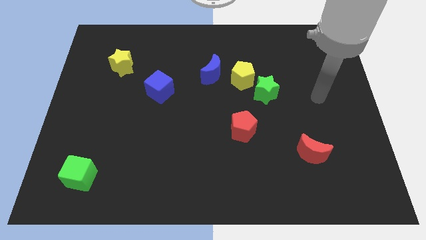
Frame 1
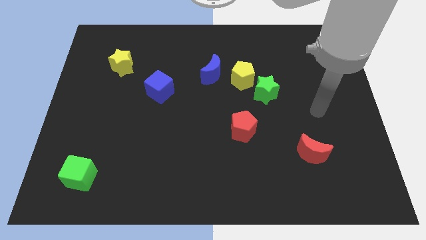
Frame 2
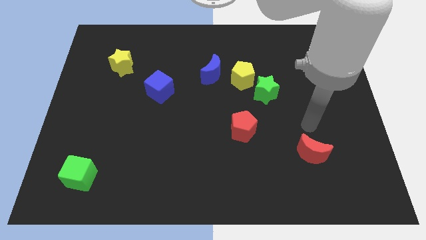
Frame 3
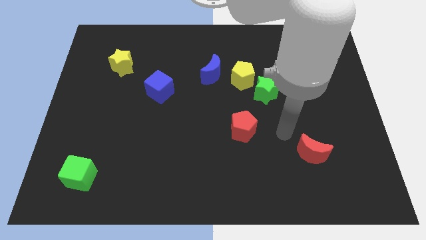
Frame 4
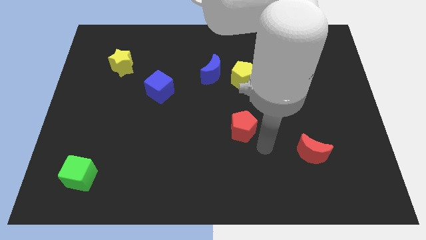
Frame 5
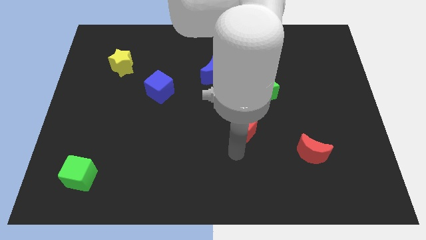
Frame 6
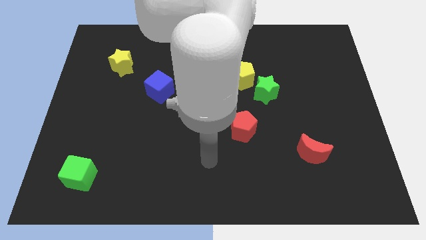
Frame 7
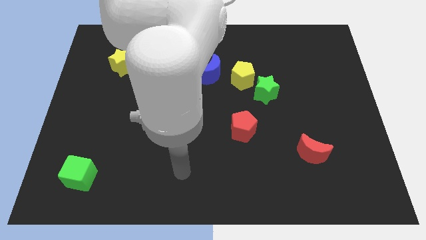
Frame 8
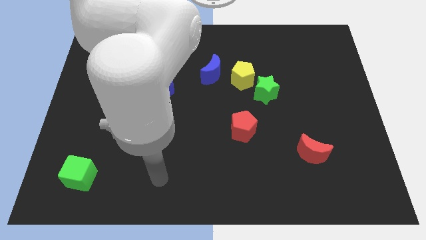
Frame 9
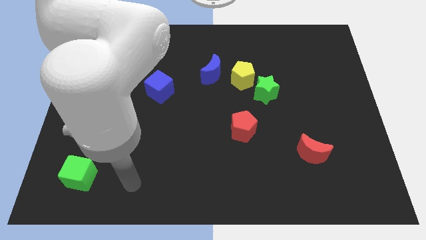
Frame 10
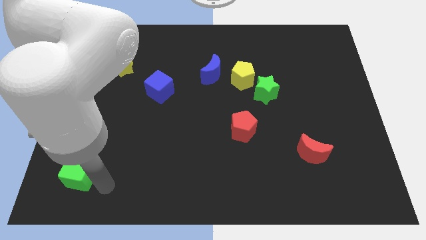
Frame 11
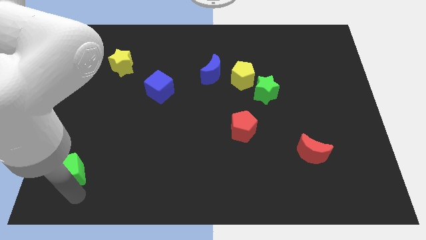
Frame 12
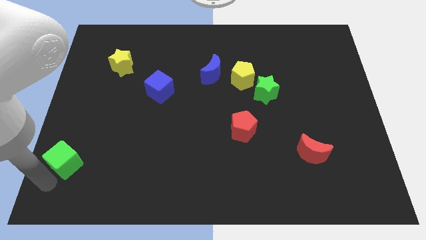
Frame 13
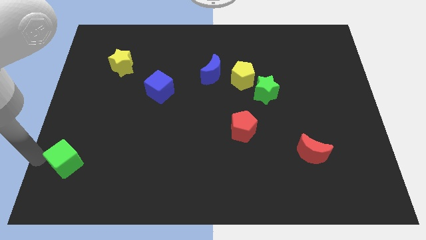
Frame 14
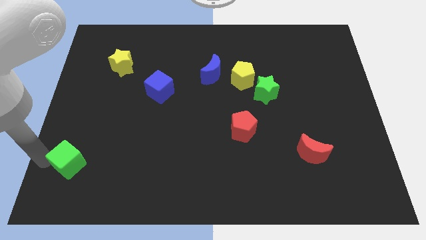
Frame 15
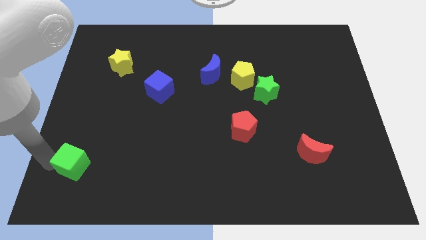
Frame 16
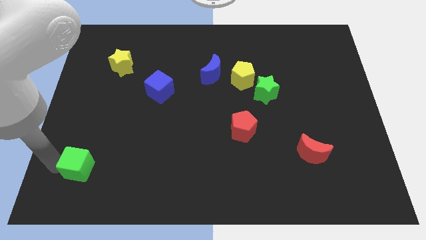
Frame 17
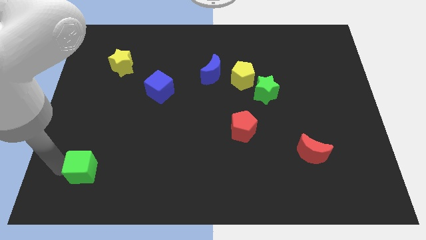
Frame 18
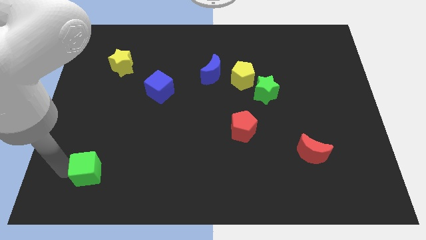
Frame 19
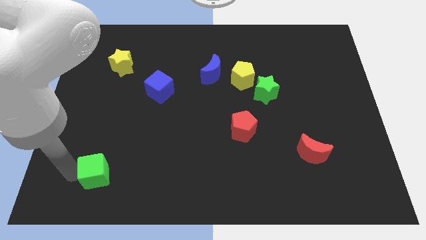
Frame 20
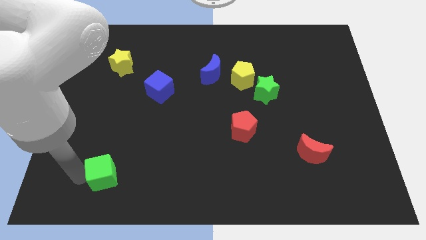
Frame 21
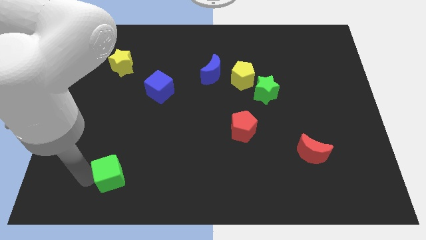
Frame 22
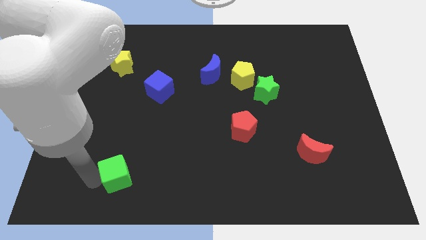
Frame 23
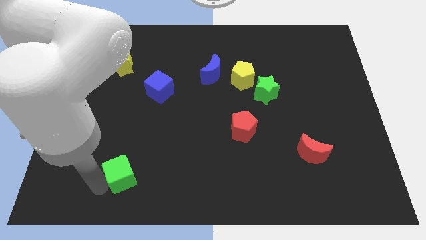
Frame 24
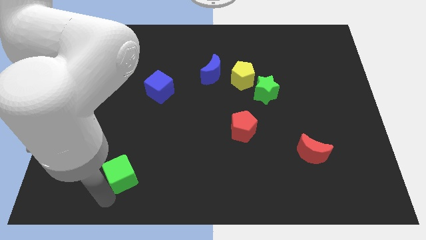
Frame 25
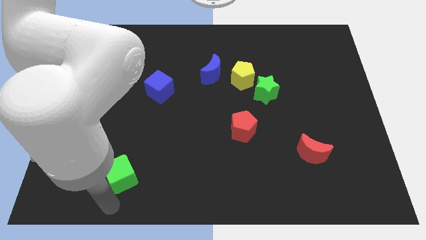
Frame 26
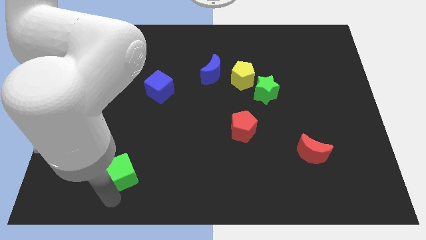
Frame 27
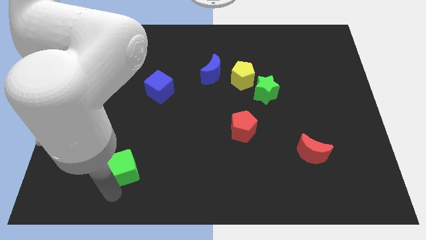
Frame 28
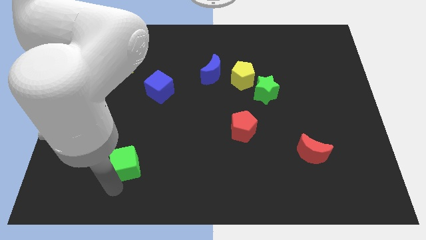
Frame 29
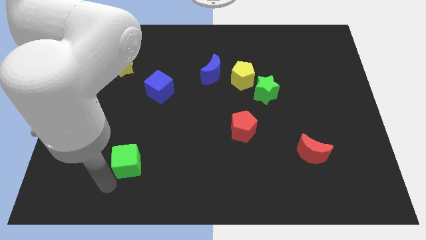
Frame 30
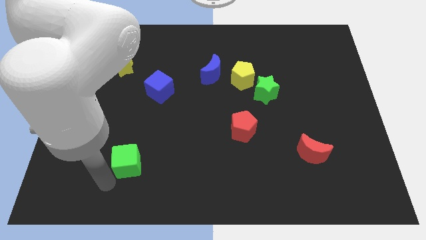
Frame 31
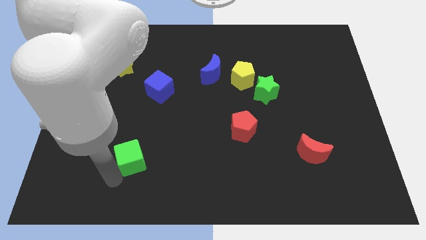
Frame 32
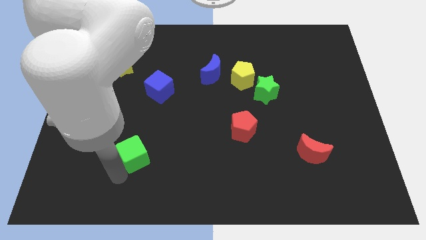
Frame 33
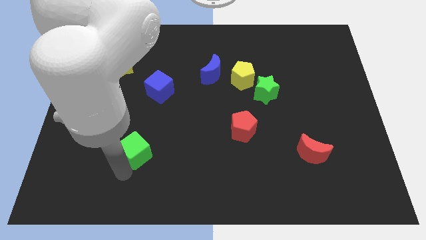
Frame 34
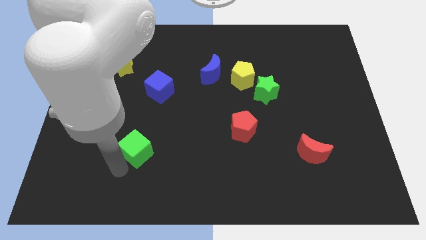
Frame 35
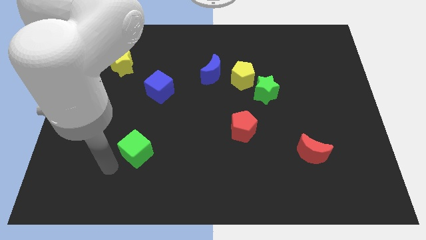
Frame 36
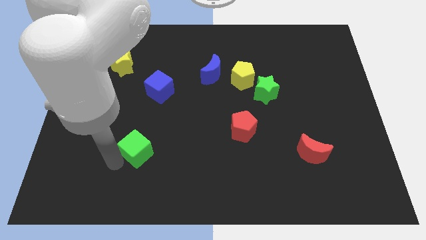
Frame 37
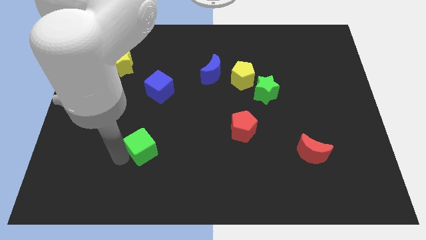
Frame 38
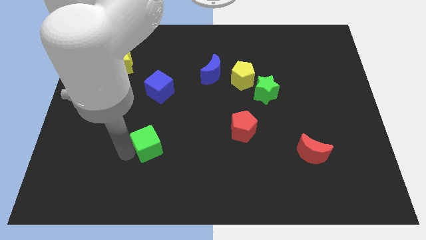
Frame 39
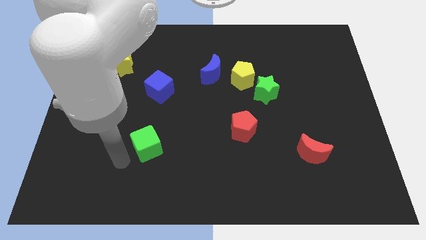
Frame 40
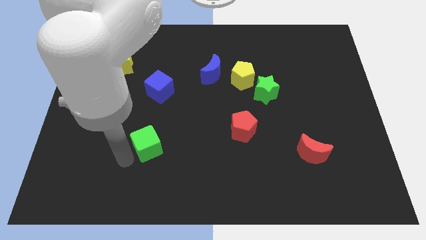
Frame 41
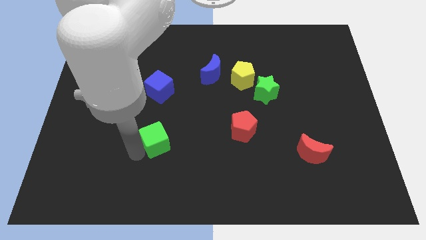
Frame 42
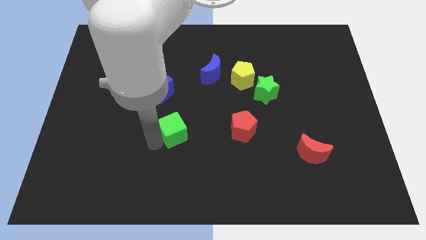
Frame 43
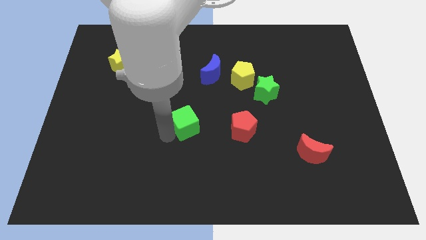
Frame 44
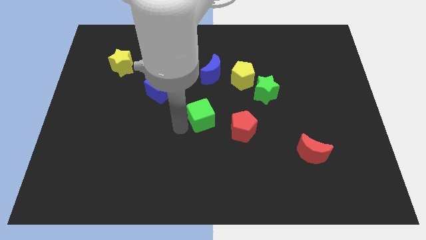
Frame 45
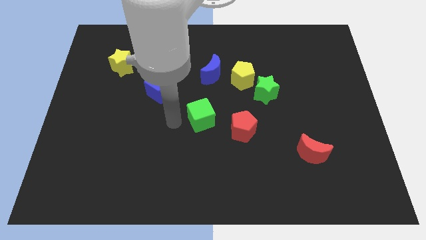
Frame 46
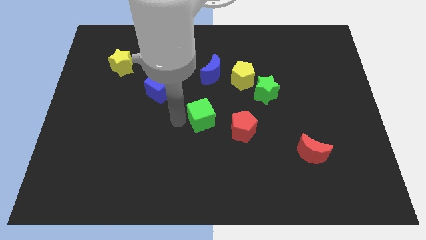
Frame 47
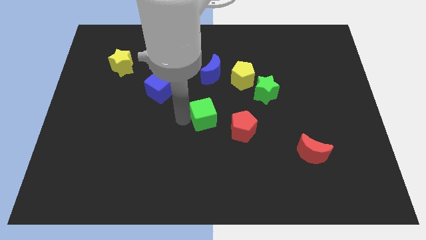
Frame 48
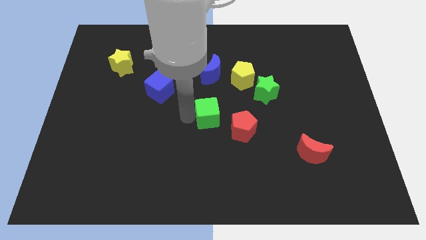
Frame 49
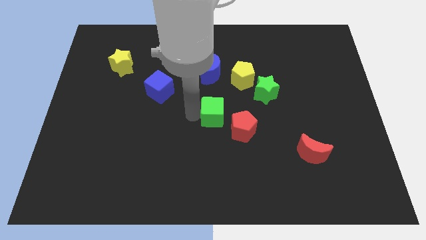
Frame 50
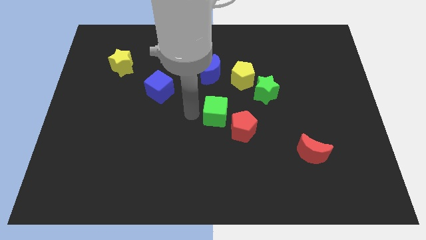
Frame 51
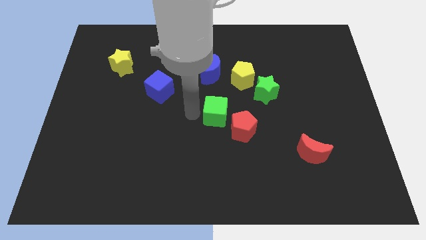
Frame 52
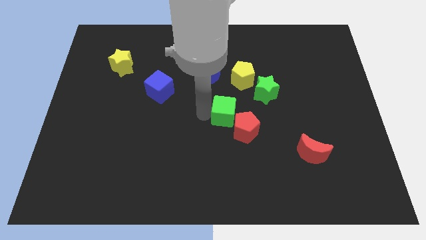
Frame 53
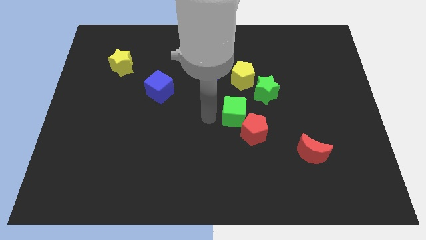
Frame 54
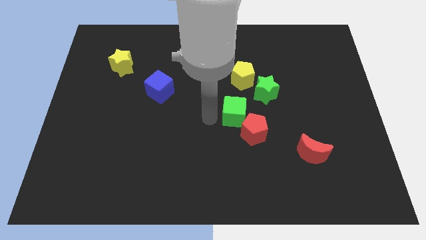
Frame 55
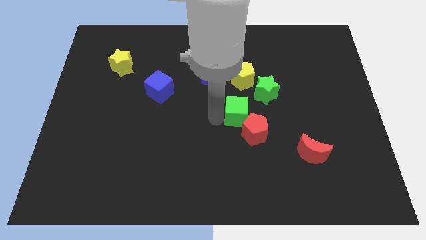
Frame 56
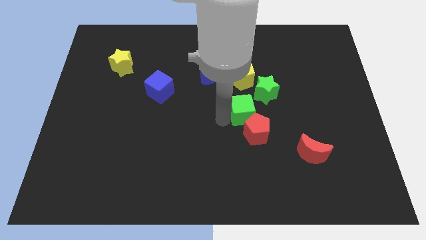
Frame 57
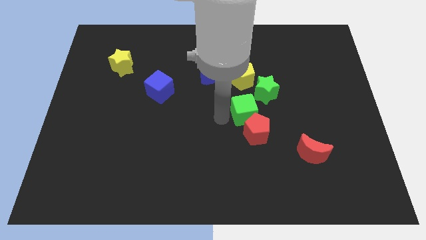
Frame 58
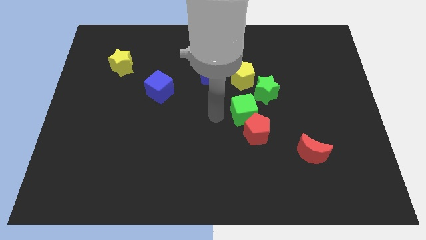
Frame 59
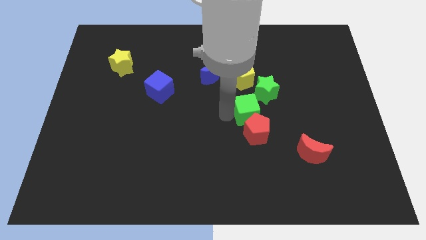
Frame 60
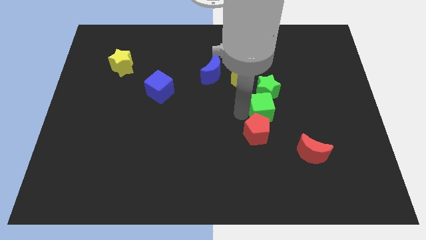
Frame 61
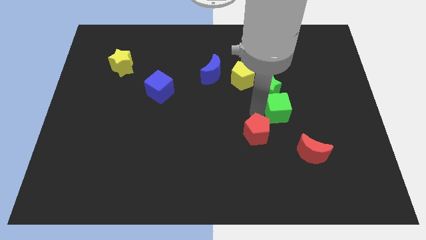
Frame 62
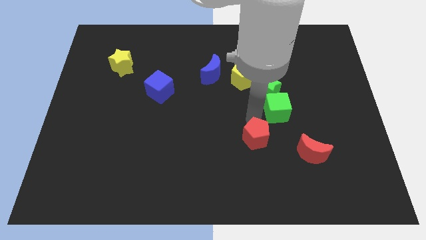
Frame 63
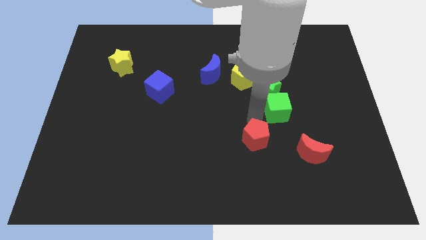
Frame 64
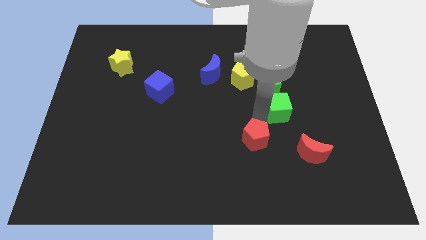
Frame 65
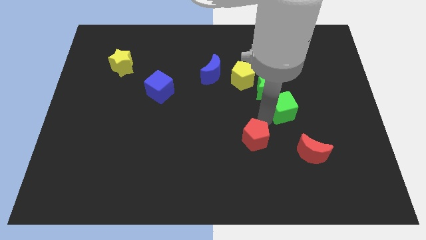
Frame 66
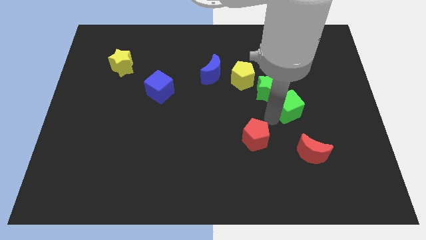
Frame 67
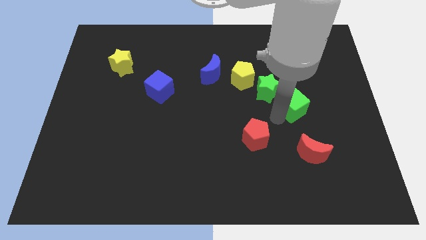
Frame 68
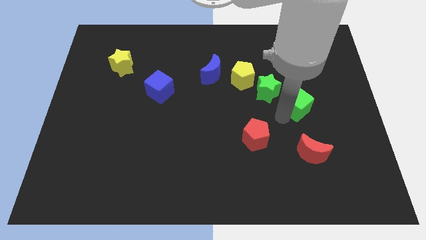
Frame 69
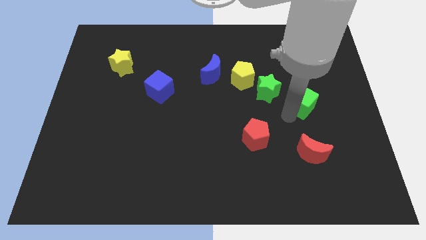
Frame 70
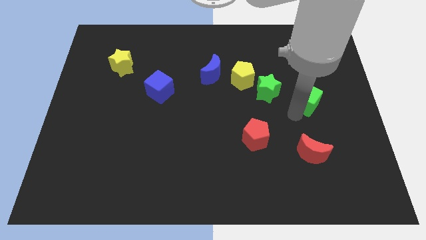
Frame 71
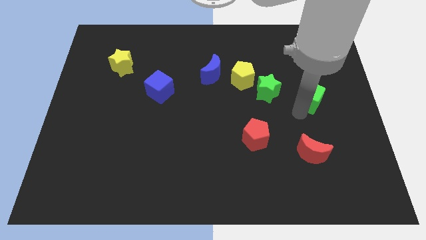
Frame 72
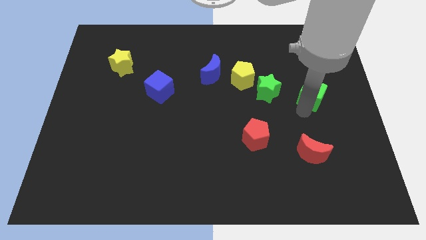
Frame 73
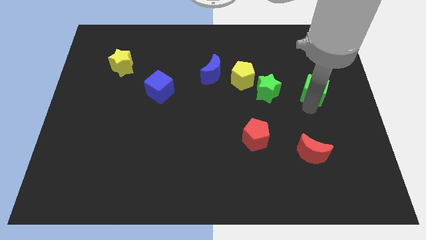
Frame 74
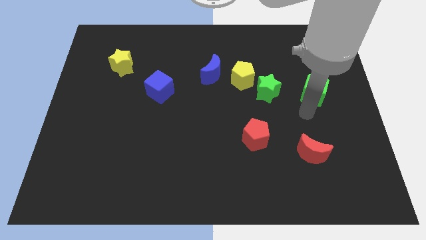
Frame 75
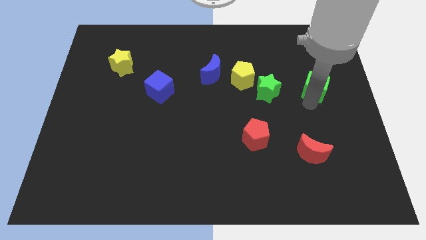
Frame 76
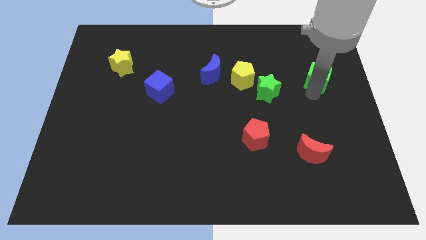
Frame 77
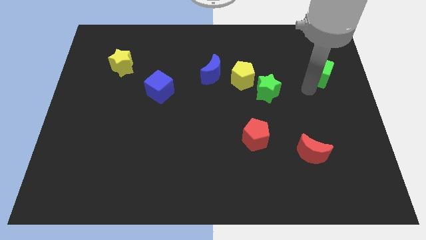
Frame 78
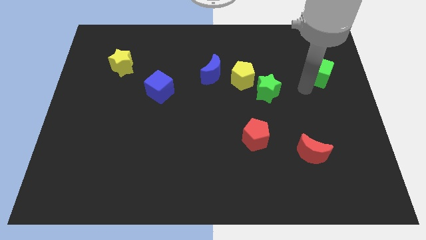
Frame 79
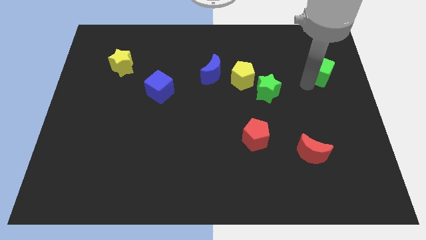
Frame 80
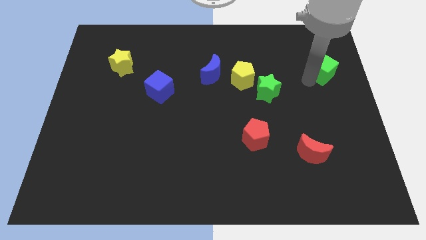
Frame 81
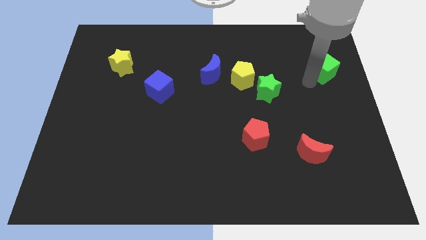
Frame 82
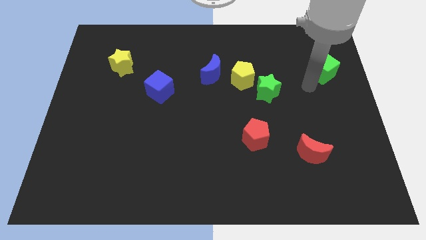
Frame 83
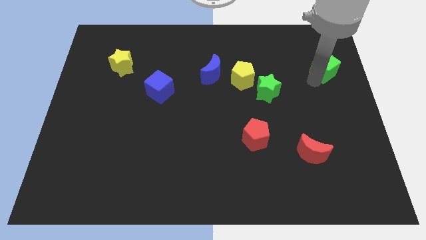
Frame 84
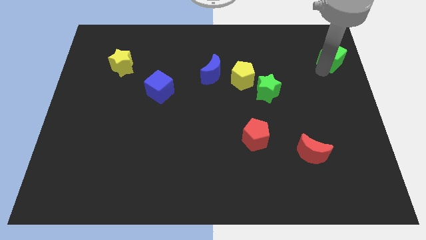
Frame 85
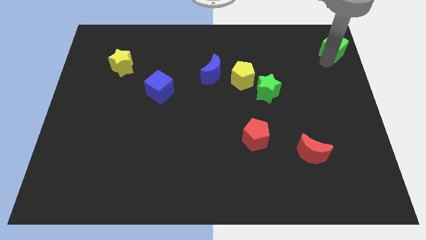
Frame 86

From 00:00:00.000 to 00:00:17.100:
push the green cube to the upper right corner
